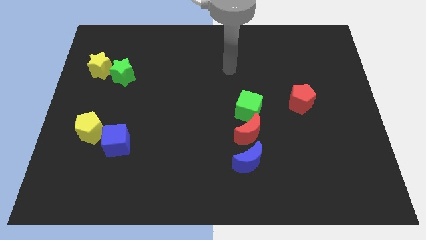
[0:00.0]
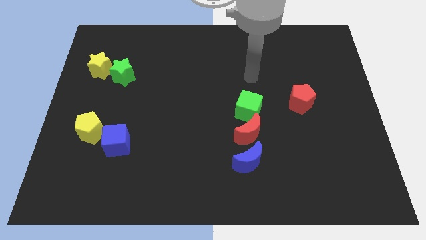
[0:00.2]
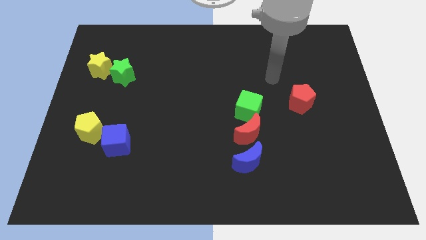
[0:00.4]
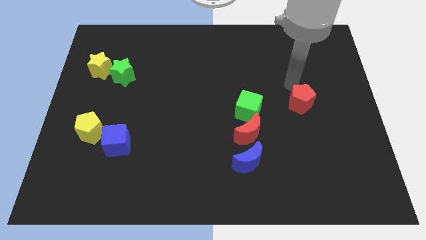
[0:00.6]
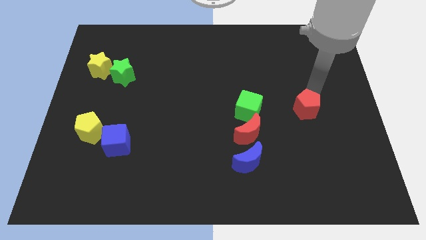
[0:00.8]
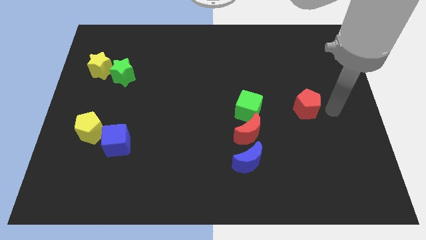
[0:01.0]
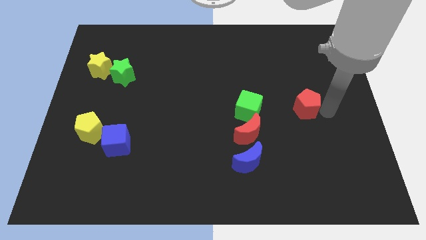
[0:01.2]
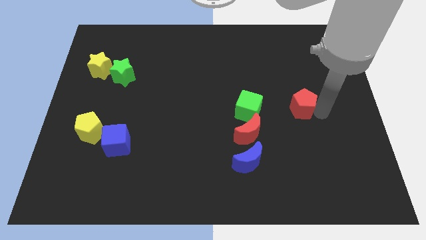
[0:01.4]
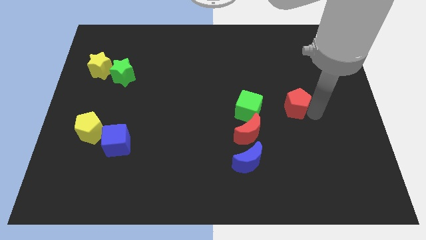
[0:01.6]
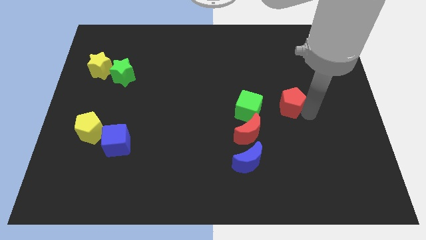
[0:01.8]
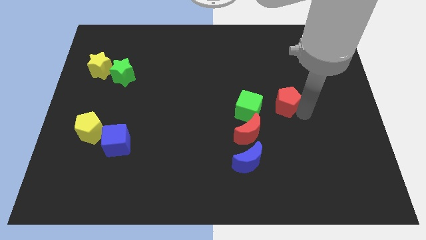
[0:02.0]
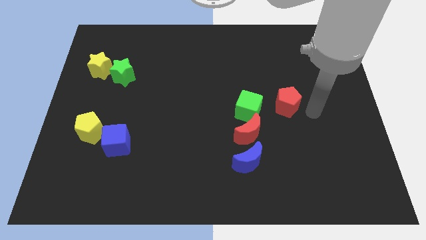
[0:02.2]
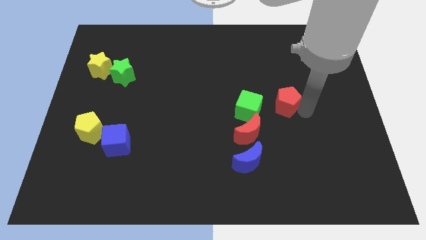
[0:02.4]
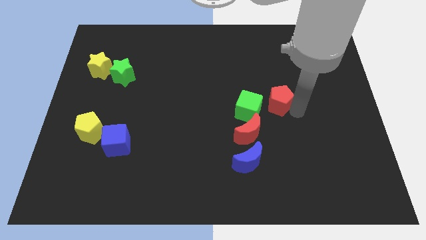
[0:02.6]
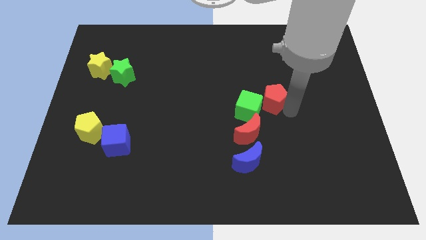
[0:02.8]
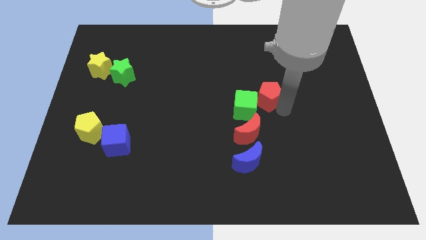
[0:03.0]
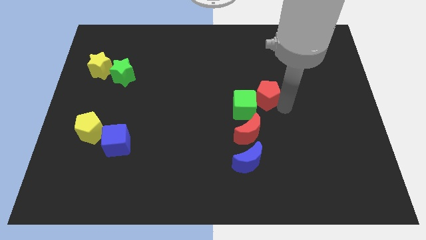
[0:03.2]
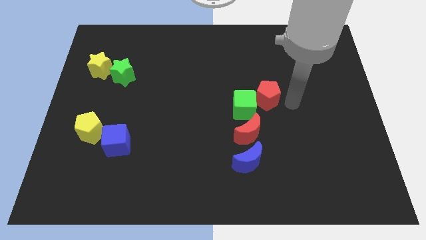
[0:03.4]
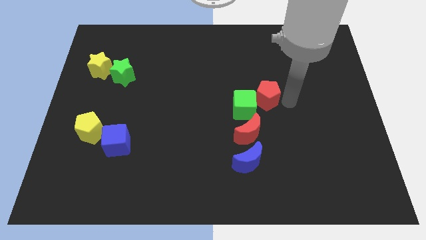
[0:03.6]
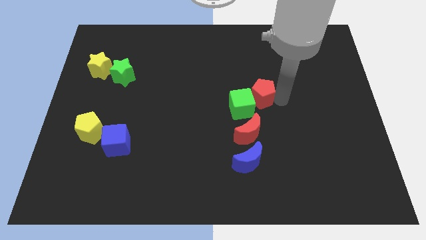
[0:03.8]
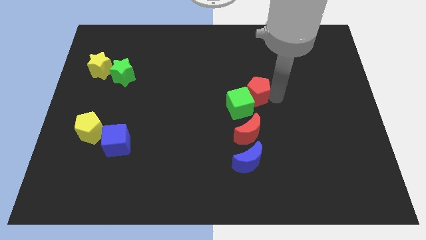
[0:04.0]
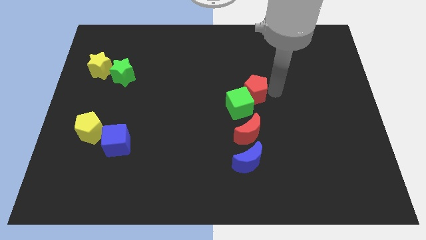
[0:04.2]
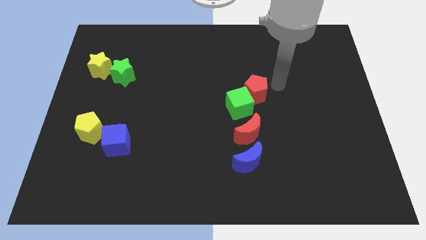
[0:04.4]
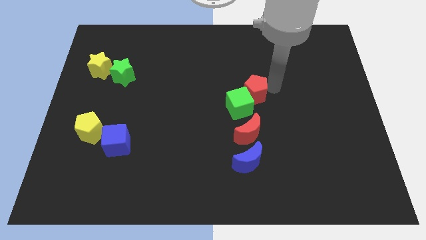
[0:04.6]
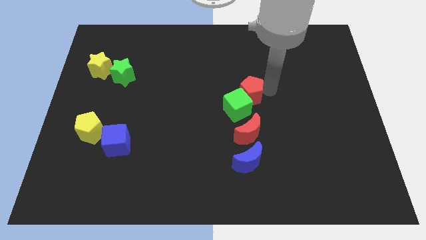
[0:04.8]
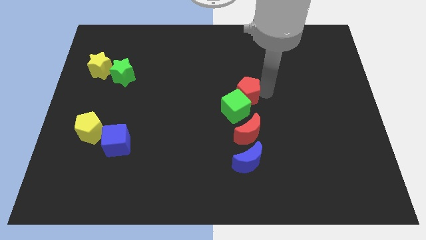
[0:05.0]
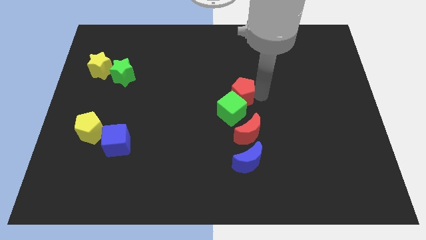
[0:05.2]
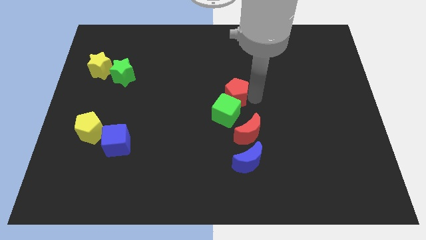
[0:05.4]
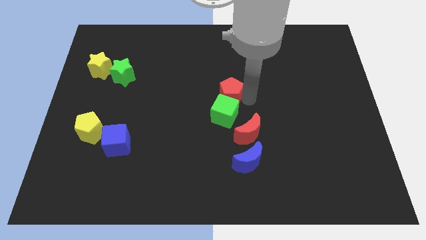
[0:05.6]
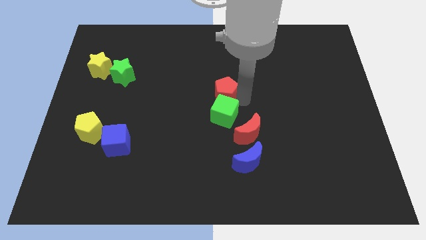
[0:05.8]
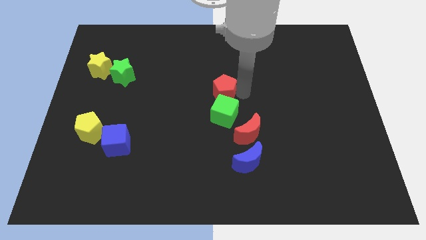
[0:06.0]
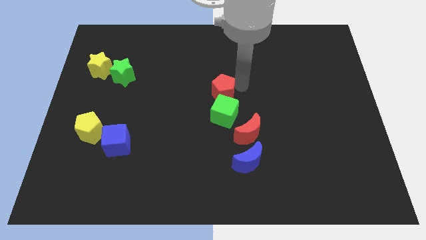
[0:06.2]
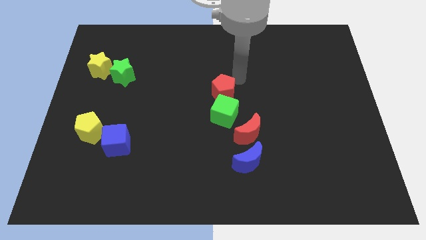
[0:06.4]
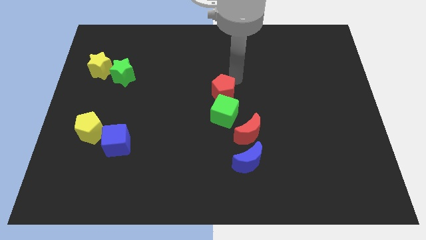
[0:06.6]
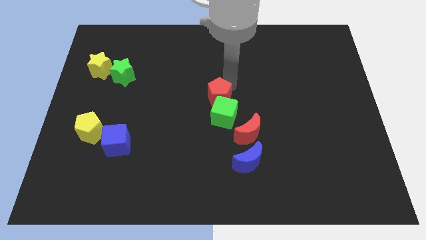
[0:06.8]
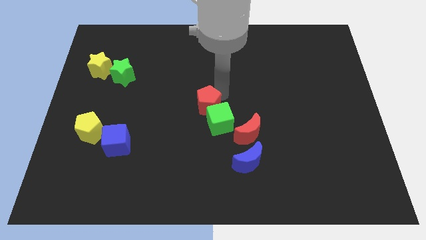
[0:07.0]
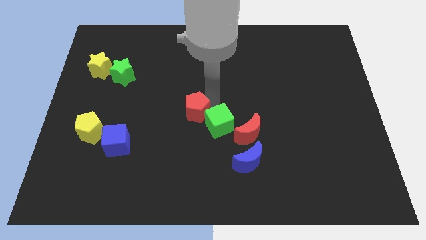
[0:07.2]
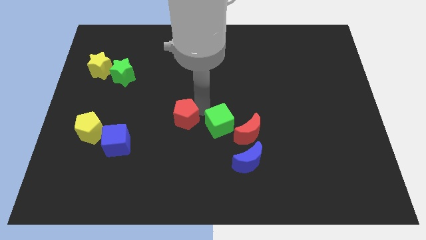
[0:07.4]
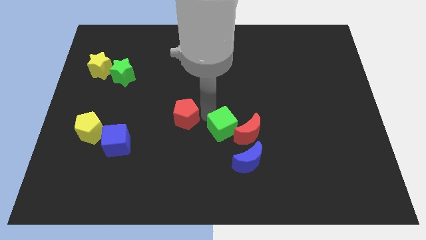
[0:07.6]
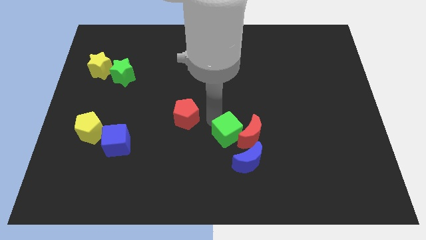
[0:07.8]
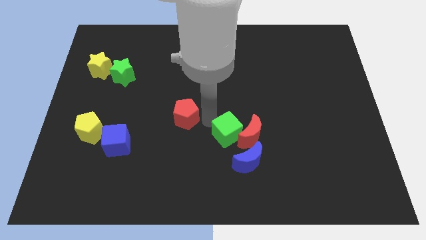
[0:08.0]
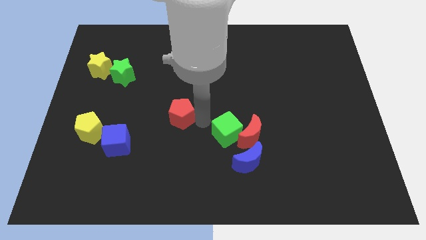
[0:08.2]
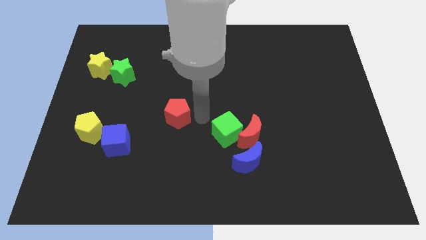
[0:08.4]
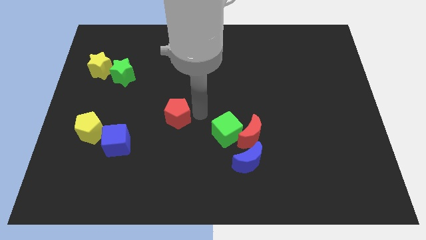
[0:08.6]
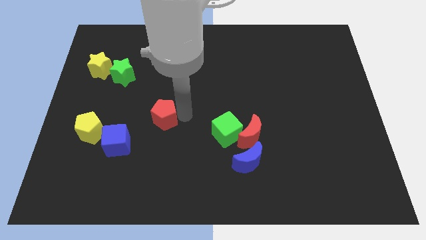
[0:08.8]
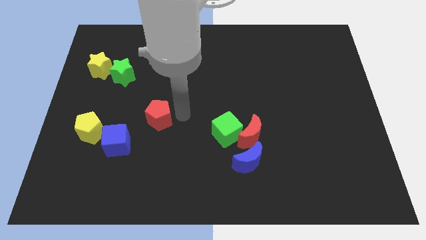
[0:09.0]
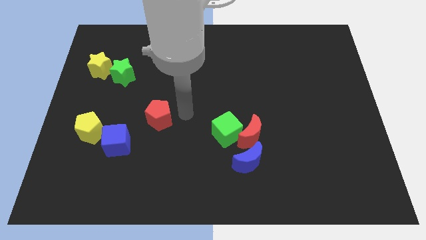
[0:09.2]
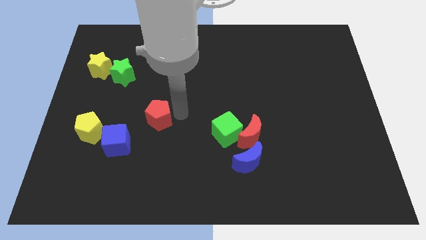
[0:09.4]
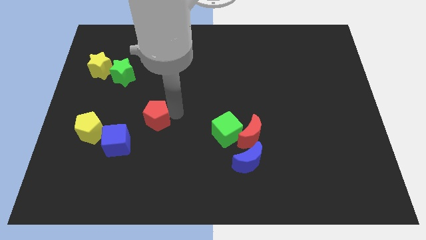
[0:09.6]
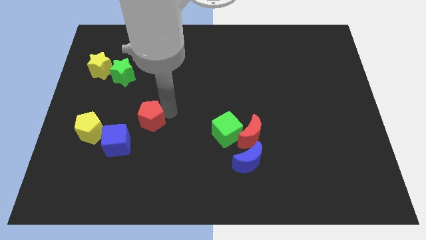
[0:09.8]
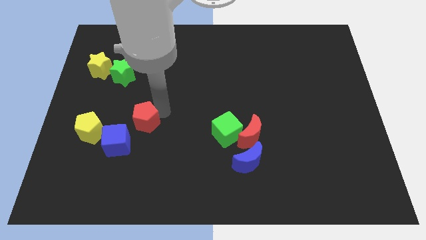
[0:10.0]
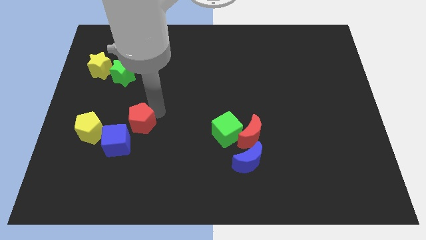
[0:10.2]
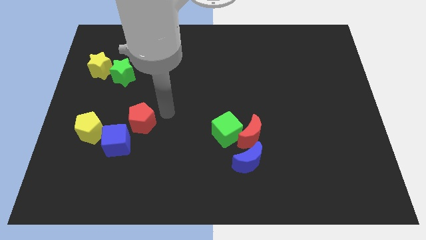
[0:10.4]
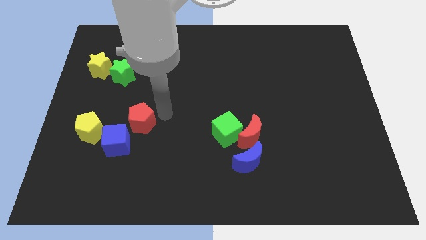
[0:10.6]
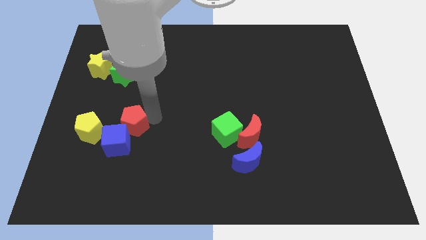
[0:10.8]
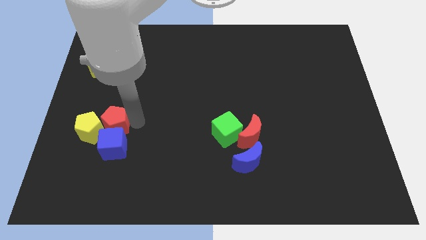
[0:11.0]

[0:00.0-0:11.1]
slide the red pentagon to the yellow pentagon

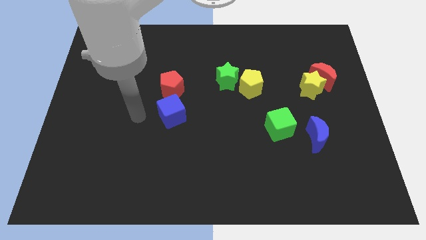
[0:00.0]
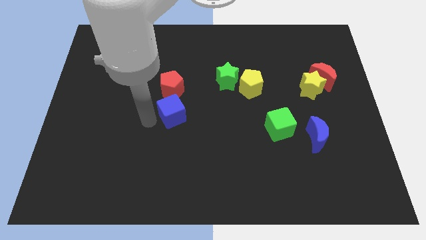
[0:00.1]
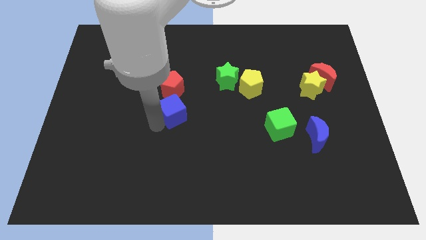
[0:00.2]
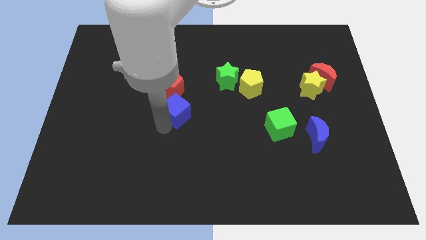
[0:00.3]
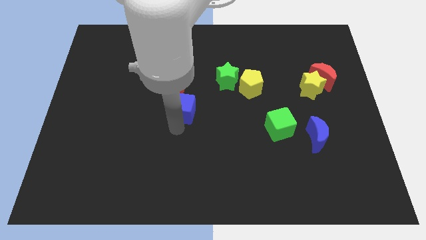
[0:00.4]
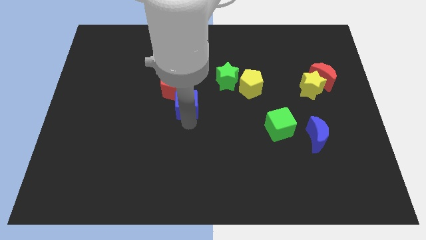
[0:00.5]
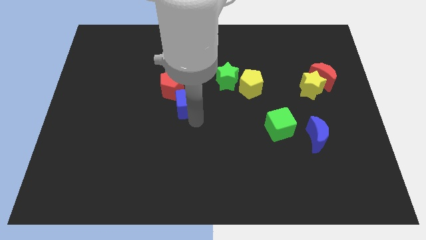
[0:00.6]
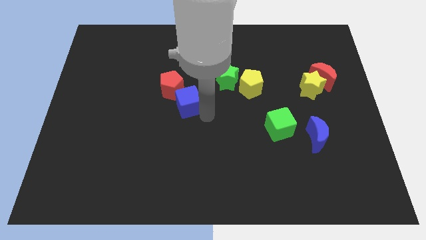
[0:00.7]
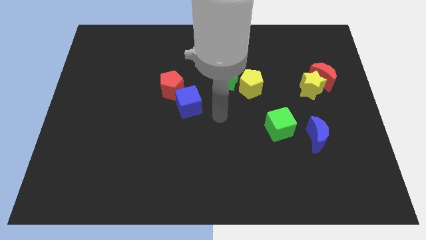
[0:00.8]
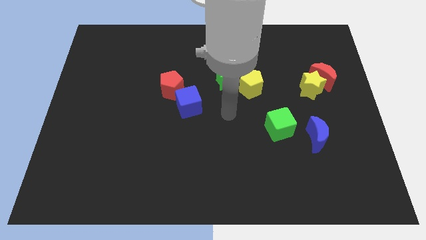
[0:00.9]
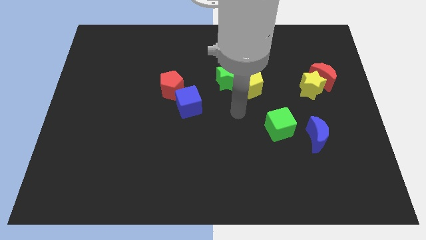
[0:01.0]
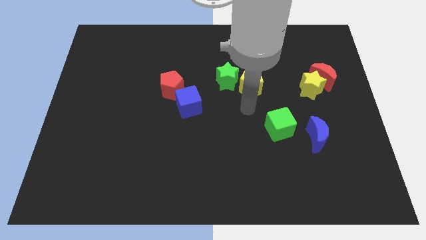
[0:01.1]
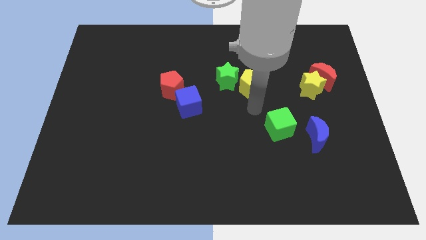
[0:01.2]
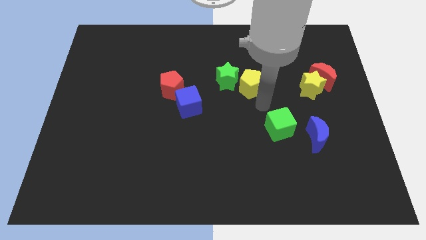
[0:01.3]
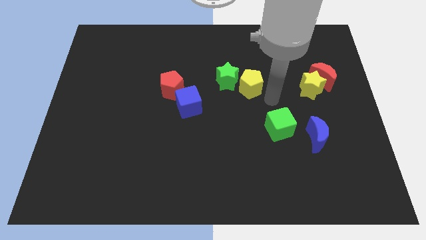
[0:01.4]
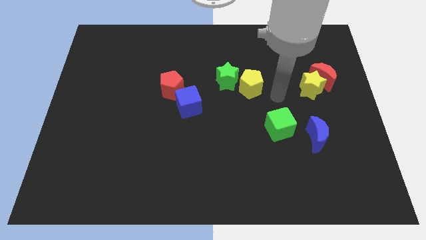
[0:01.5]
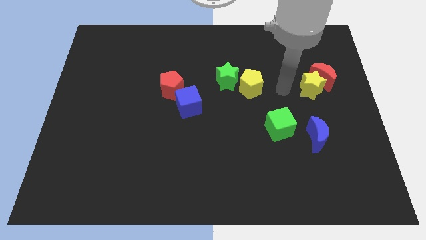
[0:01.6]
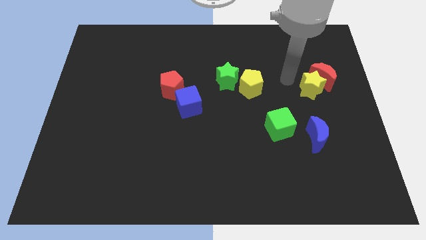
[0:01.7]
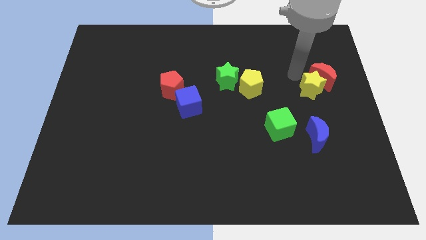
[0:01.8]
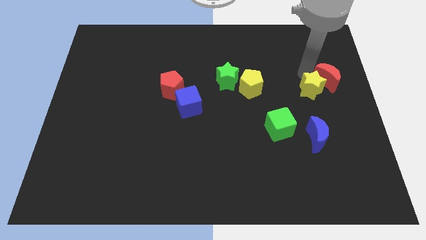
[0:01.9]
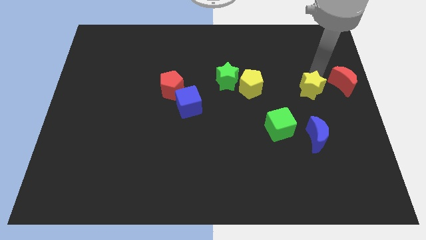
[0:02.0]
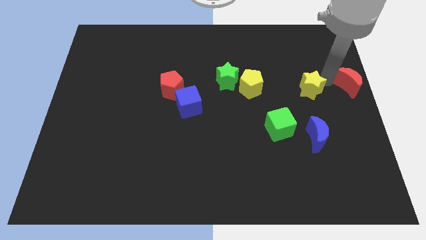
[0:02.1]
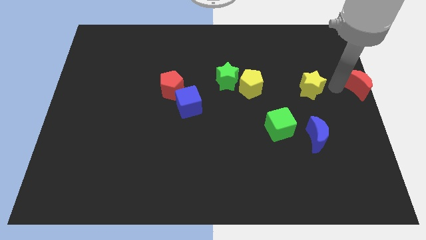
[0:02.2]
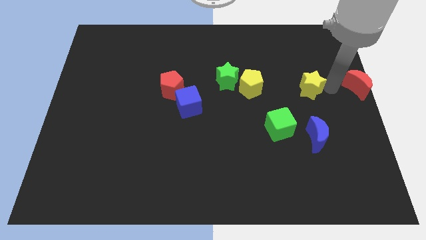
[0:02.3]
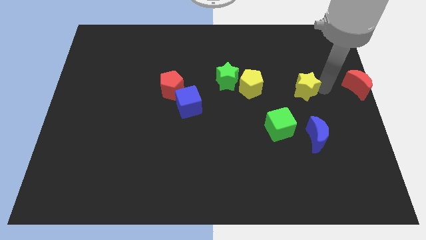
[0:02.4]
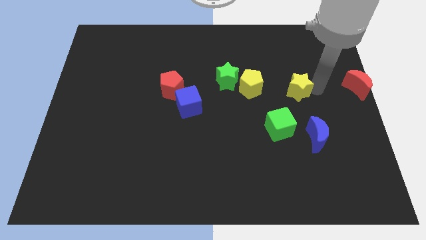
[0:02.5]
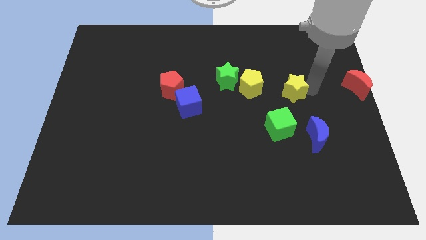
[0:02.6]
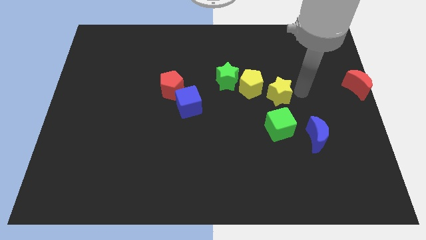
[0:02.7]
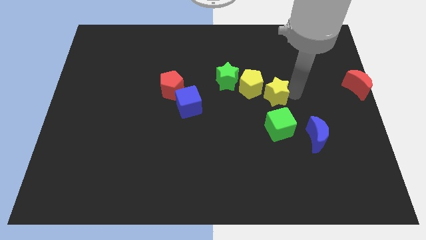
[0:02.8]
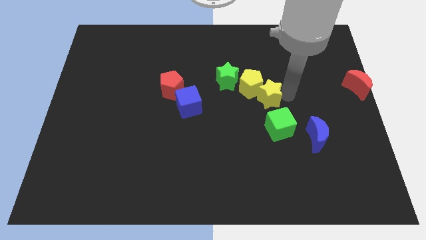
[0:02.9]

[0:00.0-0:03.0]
move the yellow star towards the yellow pentagon
